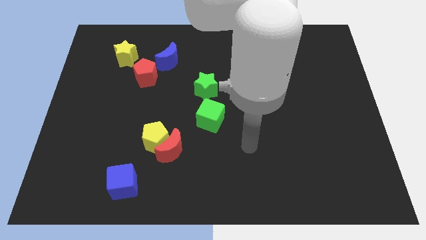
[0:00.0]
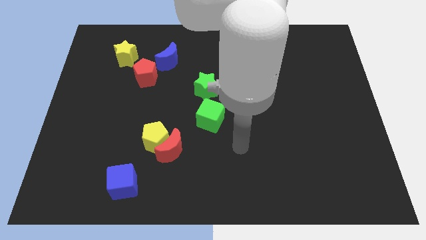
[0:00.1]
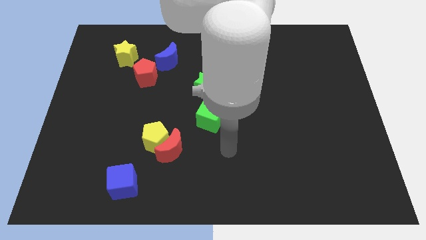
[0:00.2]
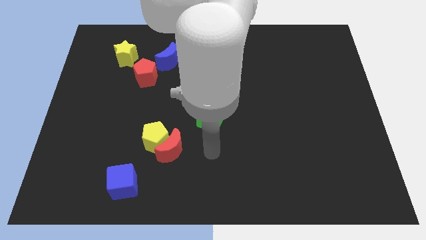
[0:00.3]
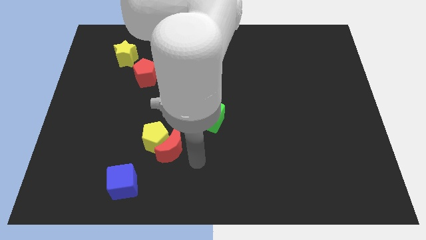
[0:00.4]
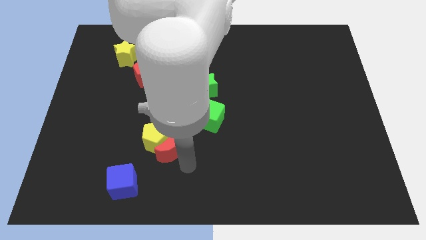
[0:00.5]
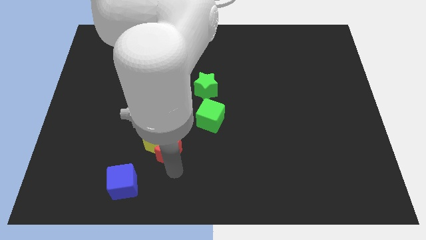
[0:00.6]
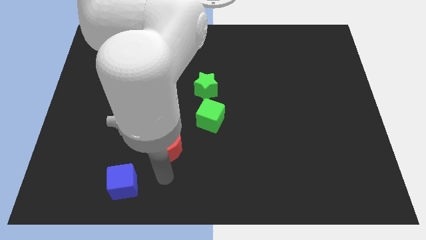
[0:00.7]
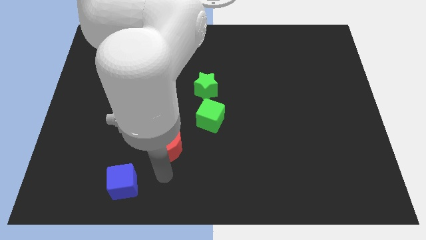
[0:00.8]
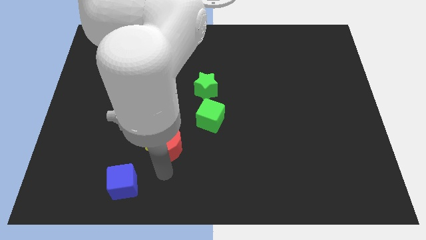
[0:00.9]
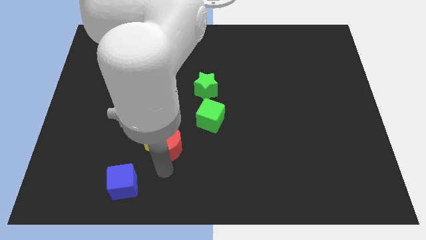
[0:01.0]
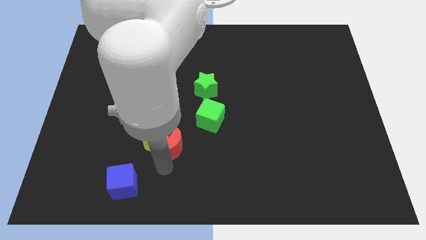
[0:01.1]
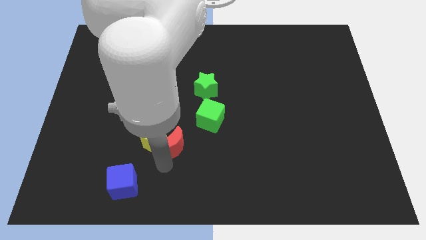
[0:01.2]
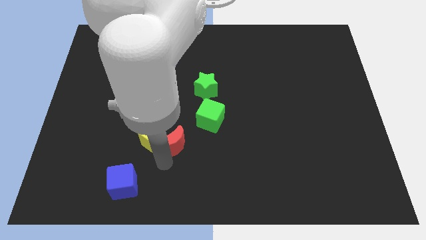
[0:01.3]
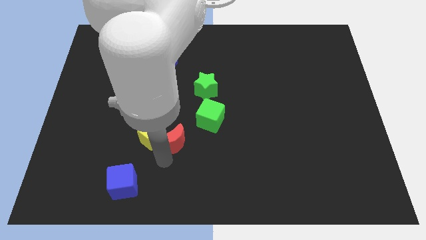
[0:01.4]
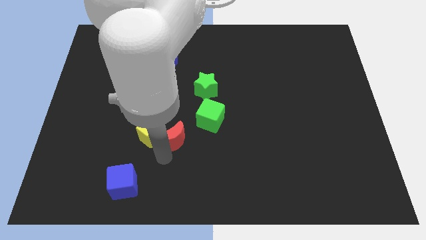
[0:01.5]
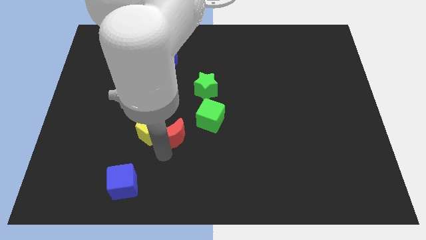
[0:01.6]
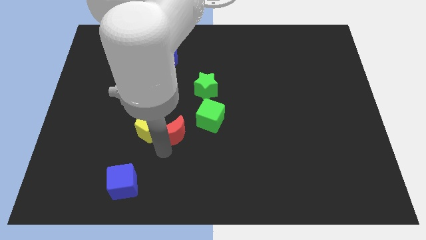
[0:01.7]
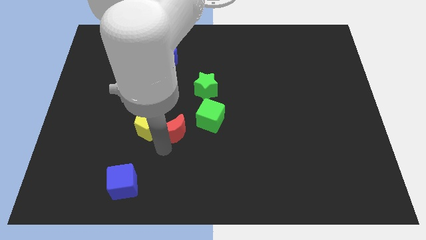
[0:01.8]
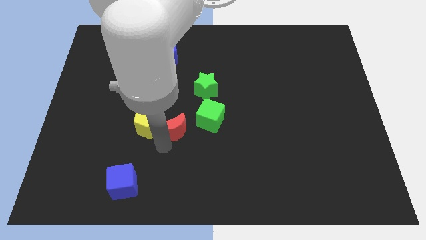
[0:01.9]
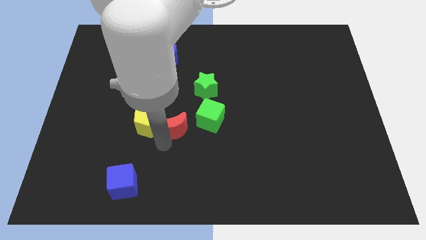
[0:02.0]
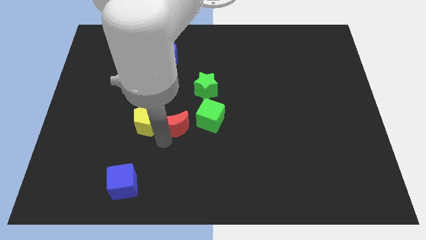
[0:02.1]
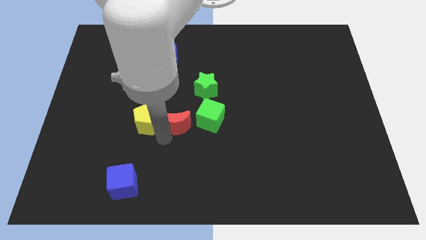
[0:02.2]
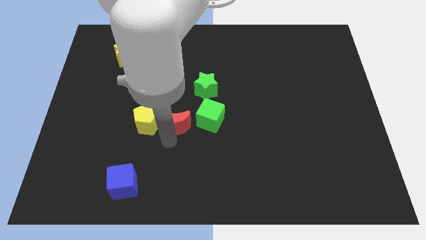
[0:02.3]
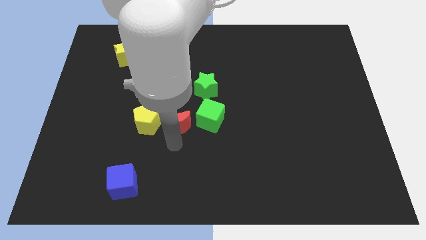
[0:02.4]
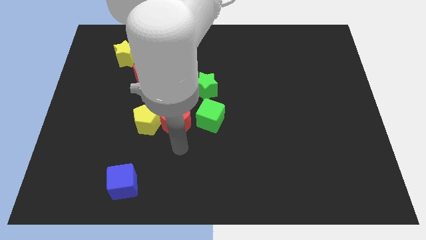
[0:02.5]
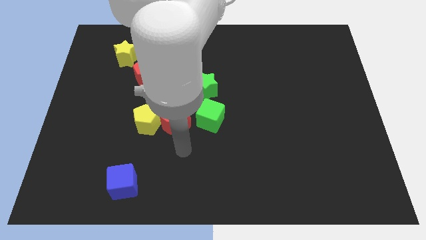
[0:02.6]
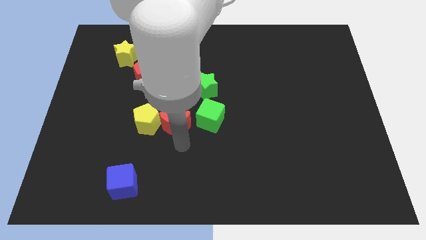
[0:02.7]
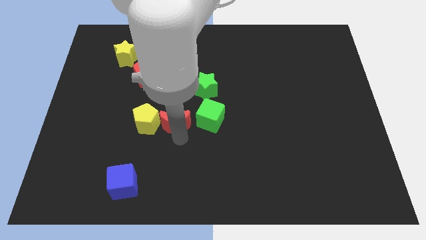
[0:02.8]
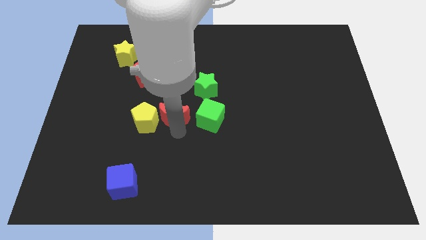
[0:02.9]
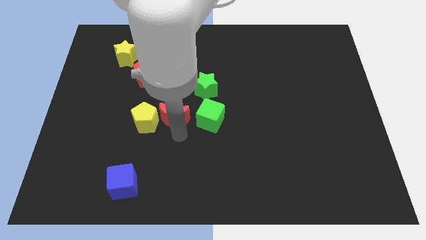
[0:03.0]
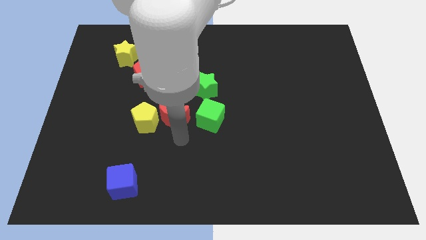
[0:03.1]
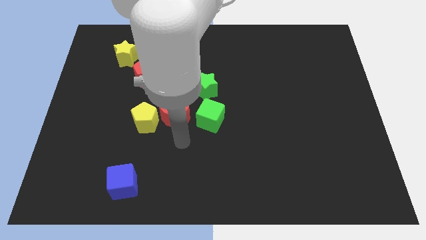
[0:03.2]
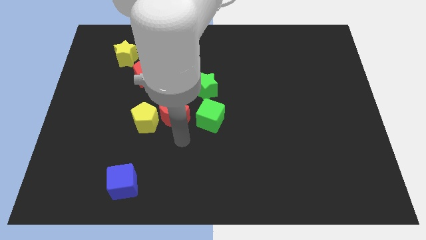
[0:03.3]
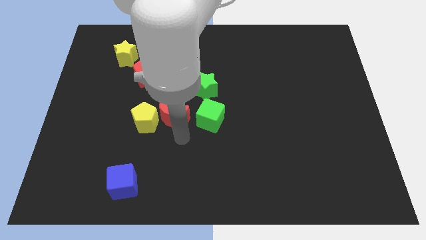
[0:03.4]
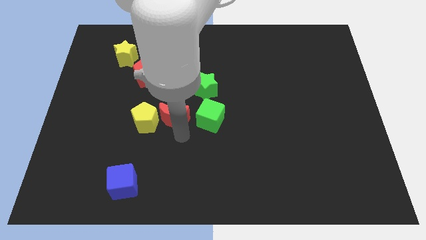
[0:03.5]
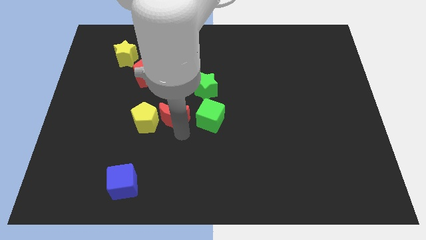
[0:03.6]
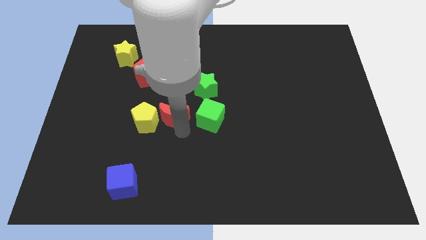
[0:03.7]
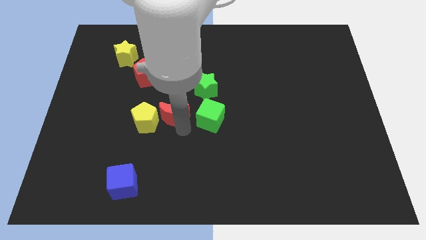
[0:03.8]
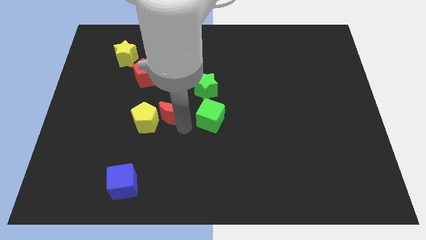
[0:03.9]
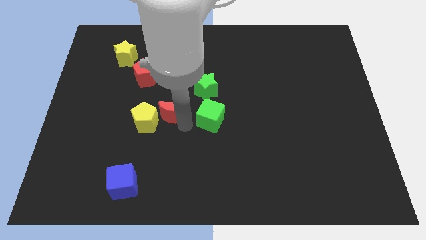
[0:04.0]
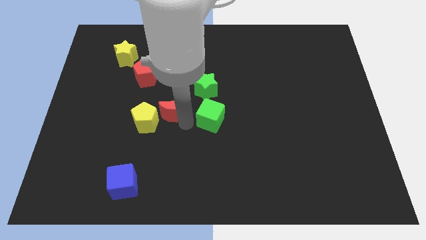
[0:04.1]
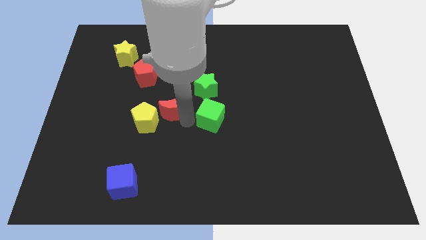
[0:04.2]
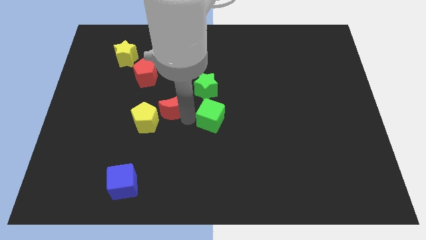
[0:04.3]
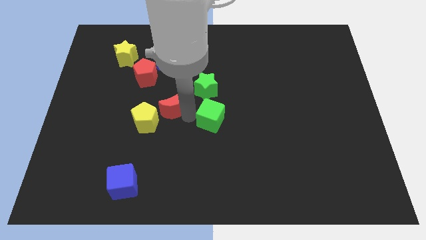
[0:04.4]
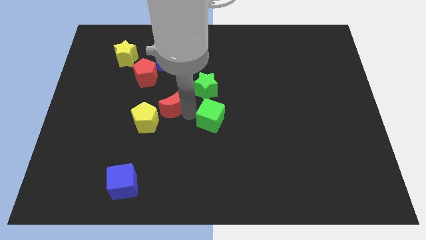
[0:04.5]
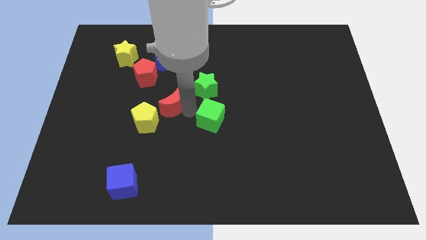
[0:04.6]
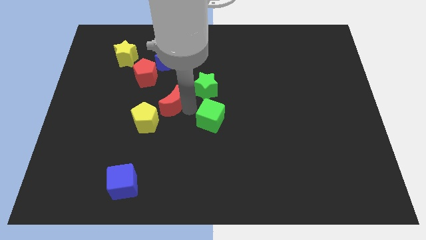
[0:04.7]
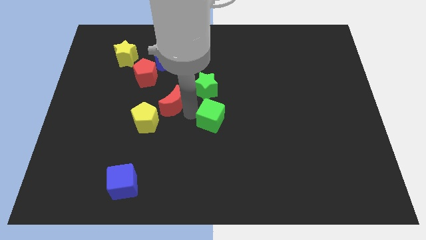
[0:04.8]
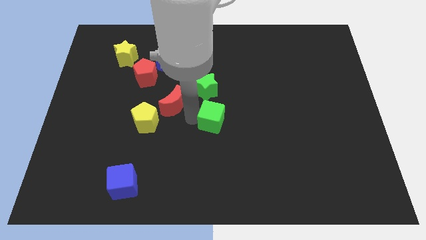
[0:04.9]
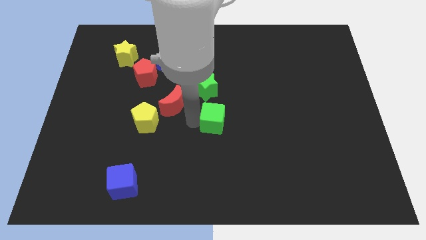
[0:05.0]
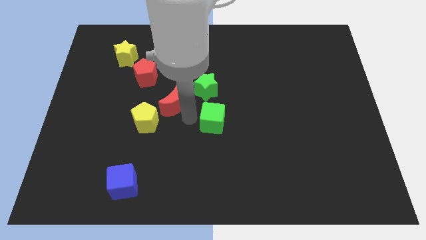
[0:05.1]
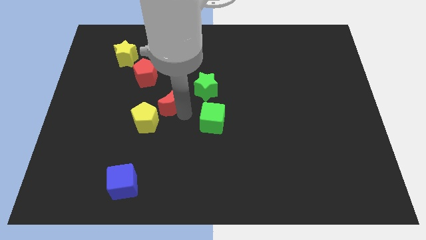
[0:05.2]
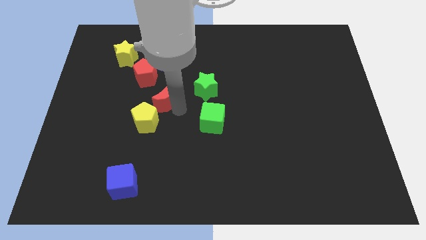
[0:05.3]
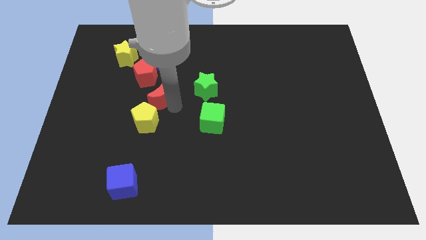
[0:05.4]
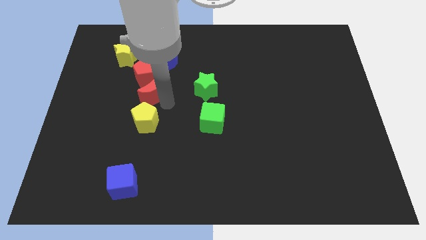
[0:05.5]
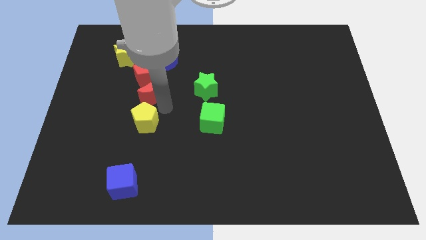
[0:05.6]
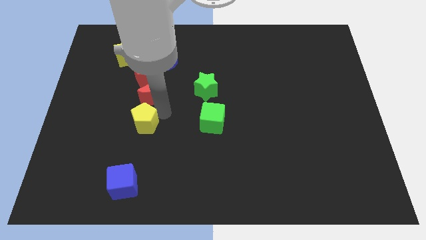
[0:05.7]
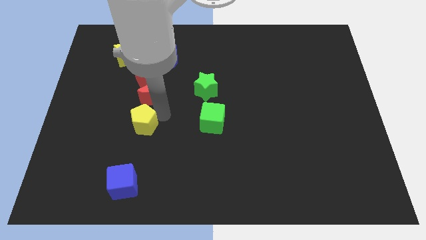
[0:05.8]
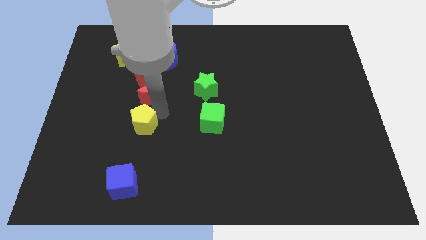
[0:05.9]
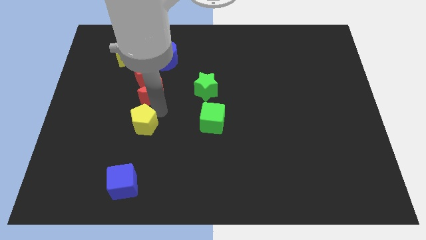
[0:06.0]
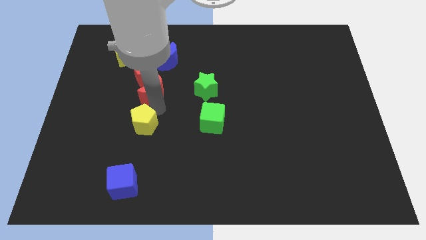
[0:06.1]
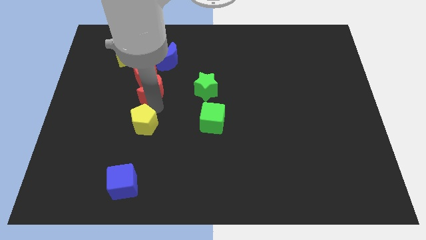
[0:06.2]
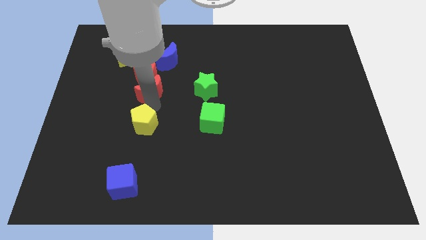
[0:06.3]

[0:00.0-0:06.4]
push the red moon next to the red pentagon

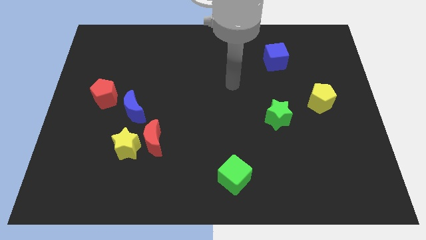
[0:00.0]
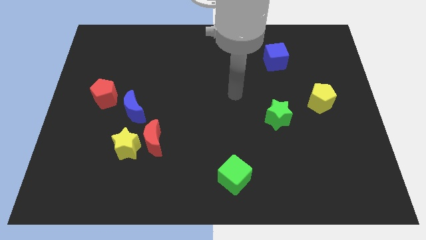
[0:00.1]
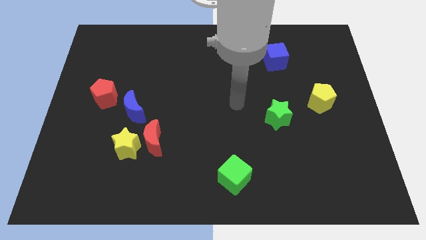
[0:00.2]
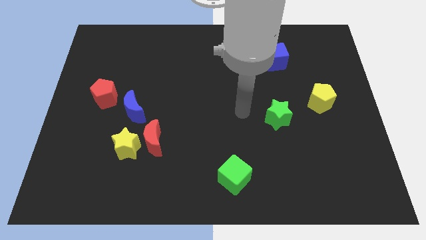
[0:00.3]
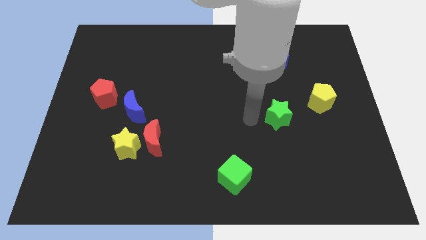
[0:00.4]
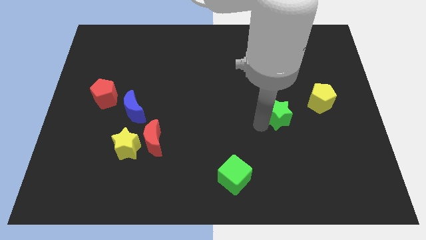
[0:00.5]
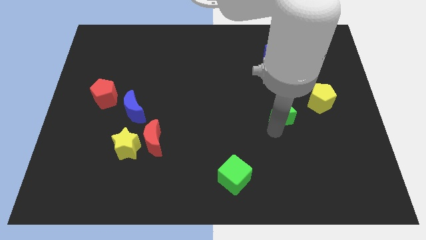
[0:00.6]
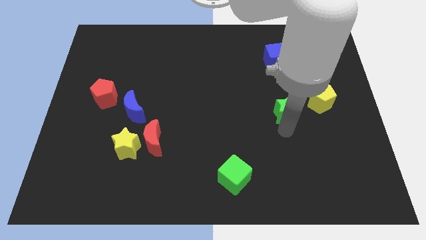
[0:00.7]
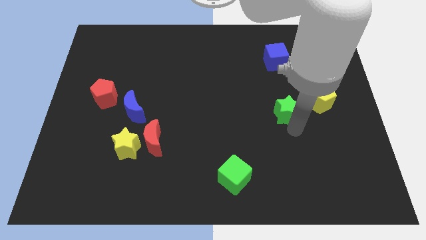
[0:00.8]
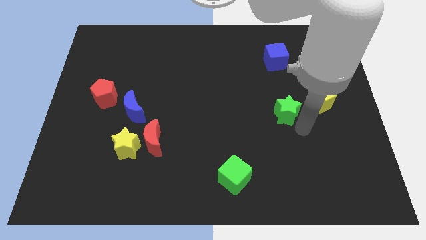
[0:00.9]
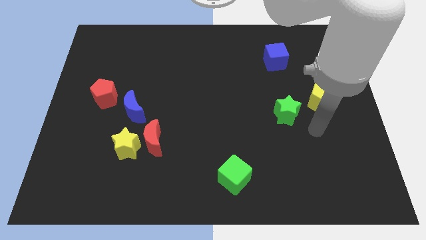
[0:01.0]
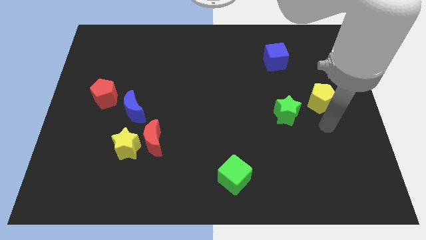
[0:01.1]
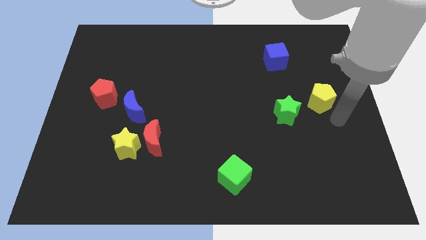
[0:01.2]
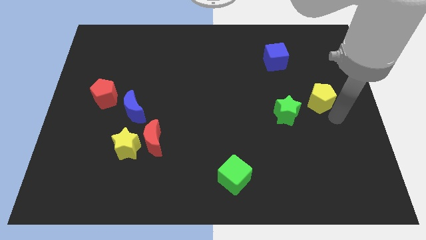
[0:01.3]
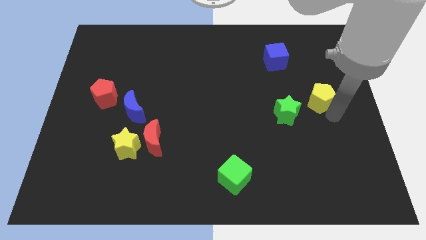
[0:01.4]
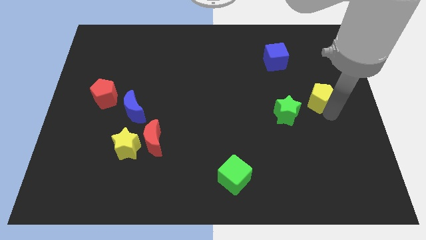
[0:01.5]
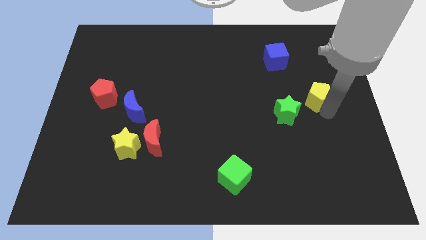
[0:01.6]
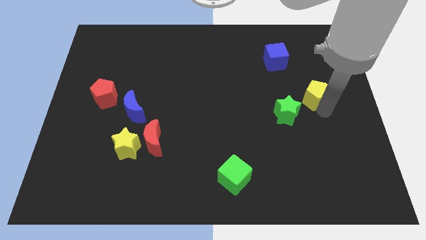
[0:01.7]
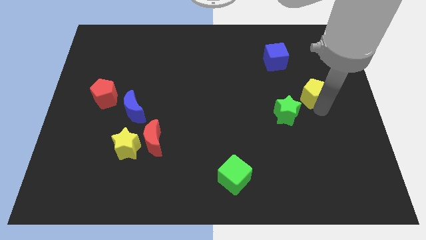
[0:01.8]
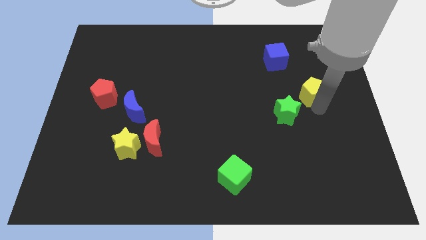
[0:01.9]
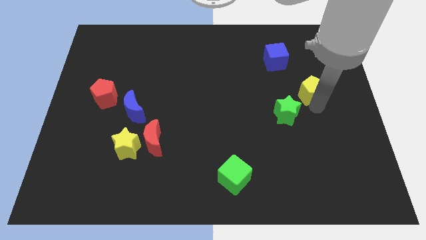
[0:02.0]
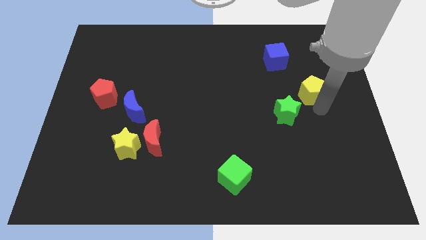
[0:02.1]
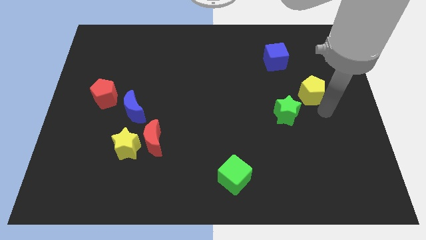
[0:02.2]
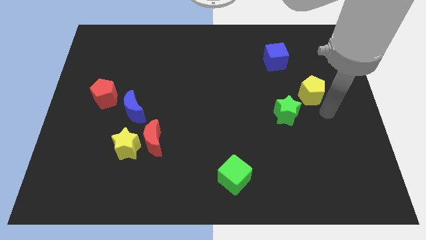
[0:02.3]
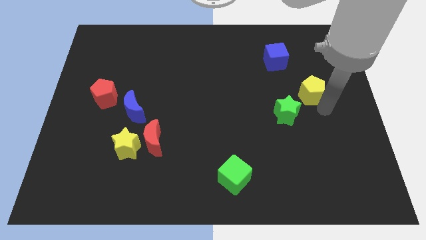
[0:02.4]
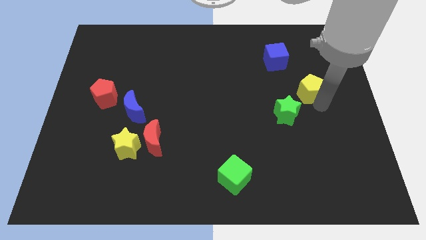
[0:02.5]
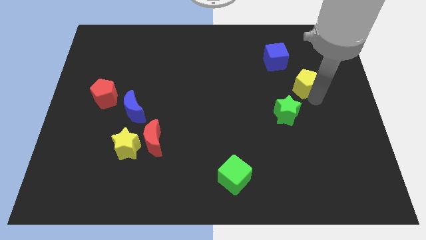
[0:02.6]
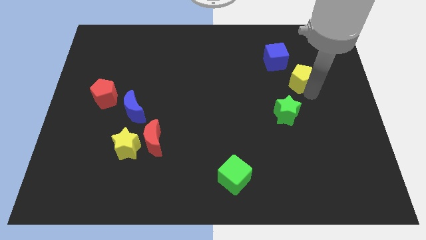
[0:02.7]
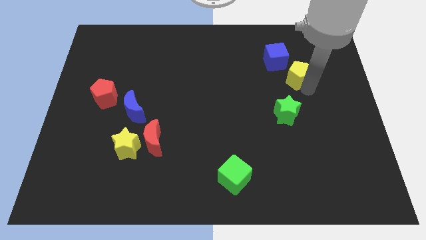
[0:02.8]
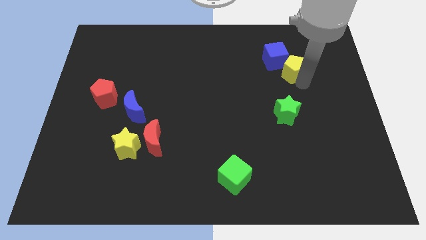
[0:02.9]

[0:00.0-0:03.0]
move the yellow pentagon close to the blue cube
